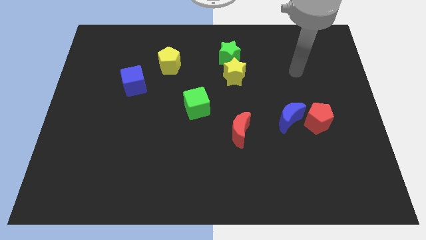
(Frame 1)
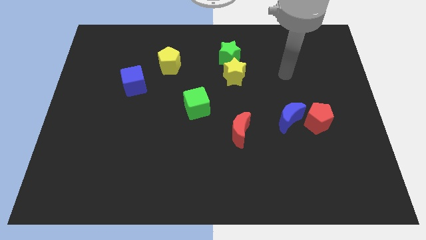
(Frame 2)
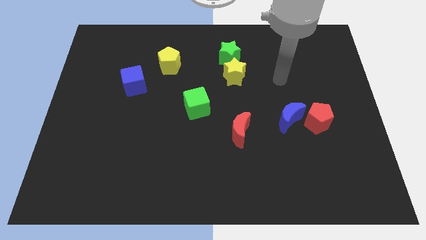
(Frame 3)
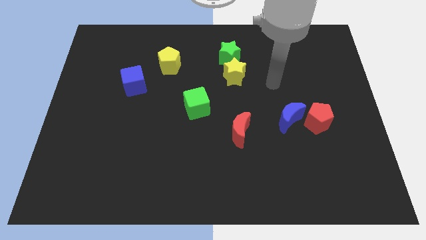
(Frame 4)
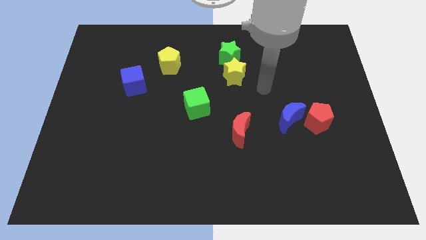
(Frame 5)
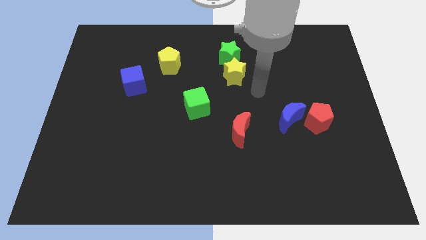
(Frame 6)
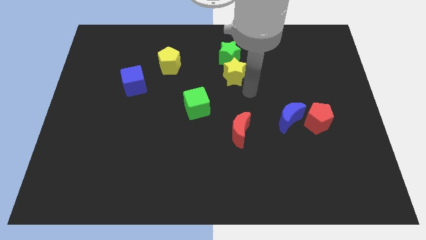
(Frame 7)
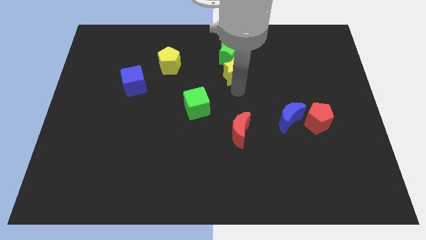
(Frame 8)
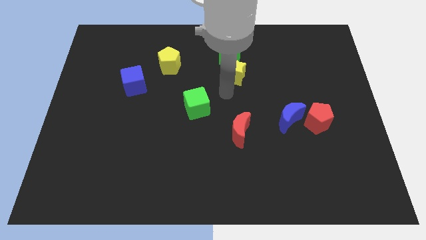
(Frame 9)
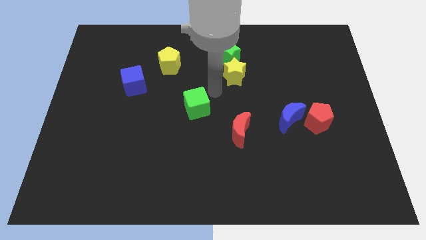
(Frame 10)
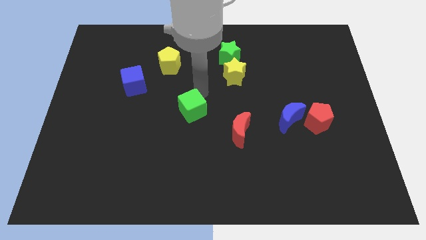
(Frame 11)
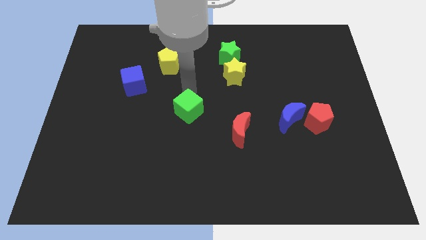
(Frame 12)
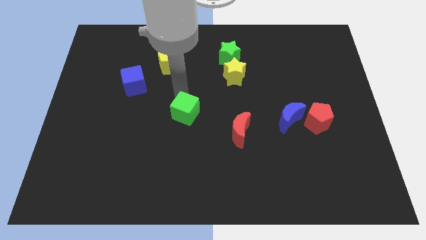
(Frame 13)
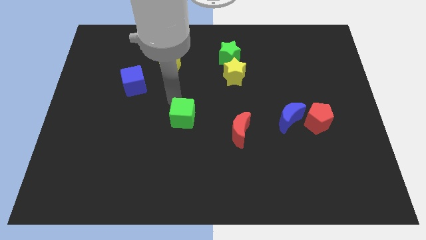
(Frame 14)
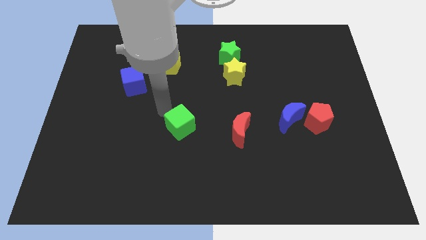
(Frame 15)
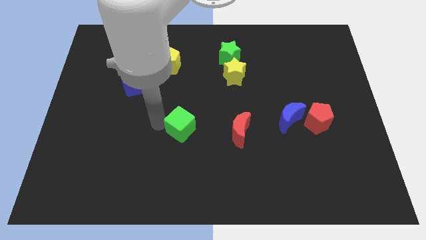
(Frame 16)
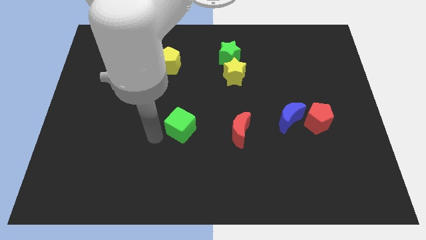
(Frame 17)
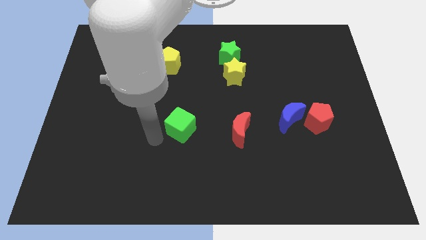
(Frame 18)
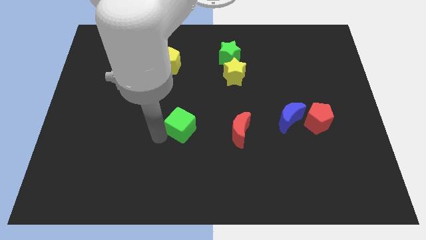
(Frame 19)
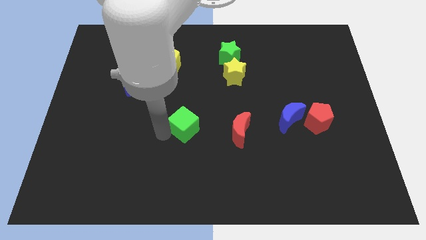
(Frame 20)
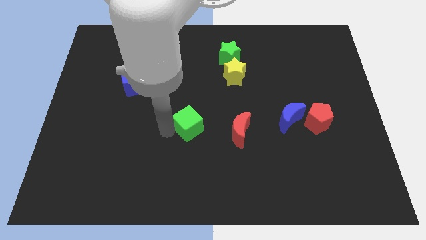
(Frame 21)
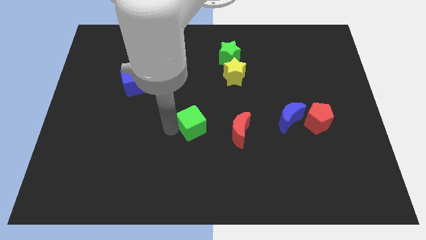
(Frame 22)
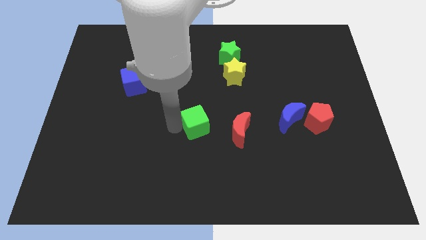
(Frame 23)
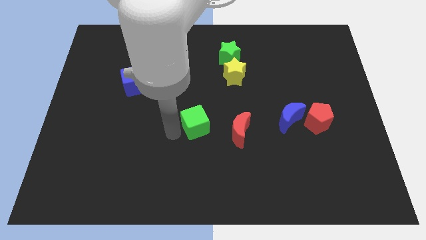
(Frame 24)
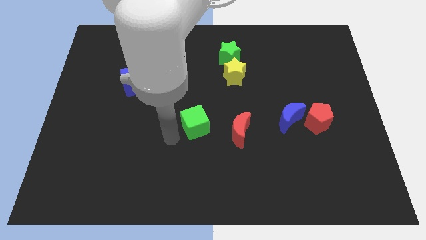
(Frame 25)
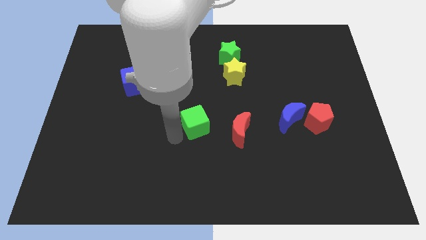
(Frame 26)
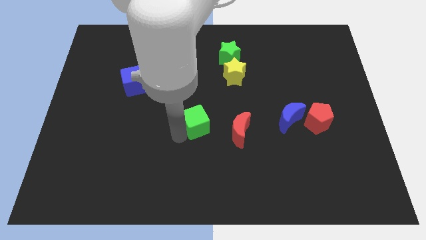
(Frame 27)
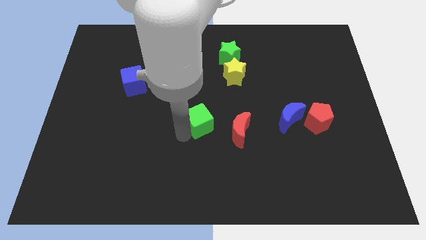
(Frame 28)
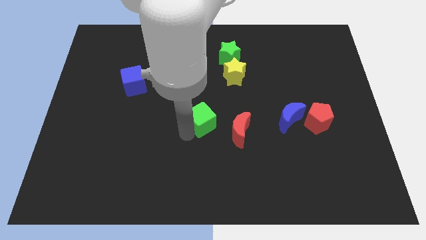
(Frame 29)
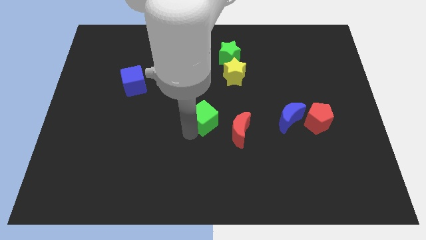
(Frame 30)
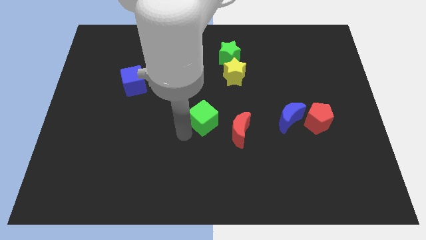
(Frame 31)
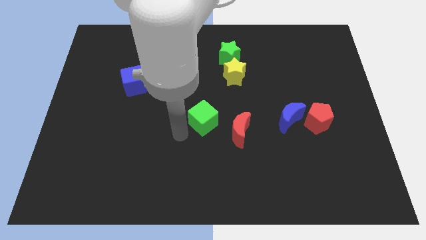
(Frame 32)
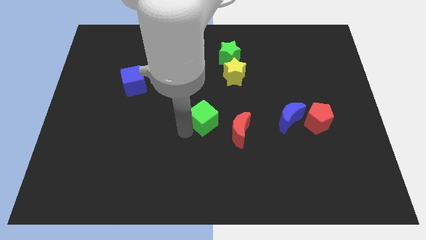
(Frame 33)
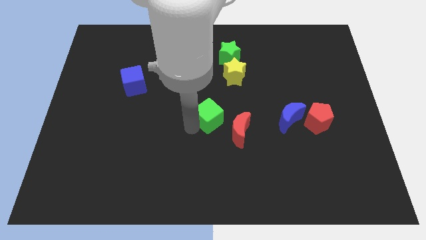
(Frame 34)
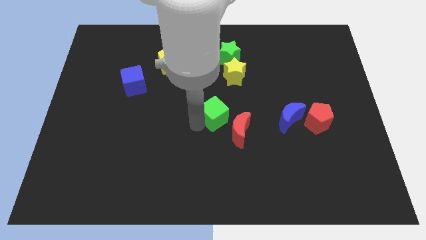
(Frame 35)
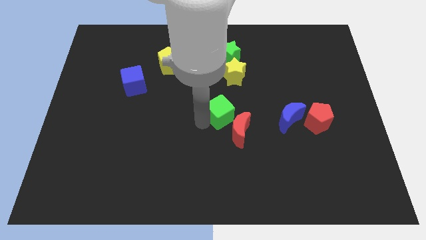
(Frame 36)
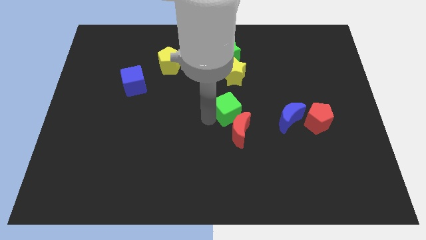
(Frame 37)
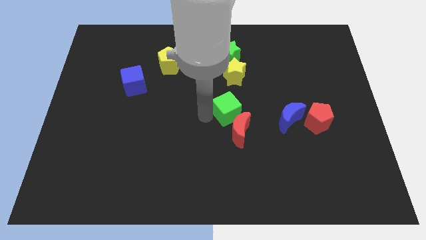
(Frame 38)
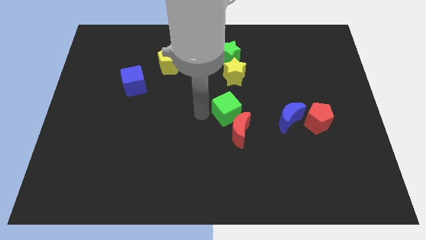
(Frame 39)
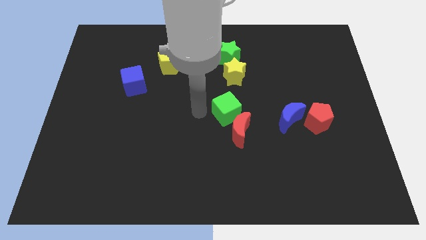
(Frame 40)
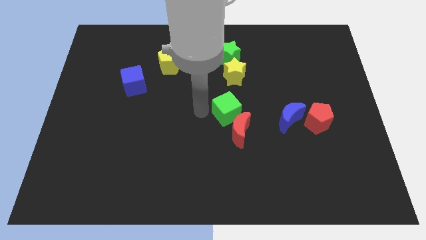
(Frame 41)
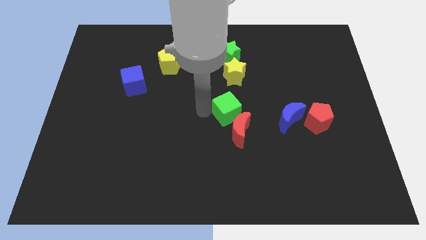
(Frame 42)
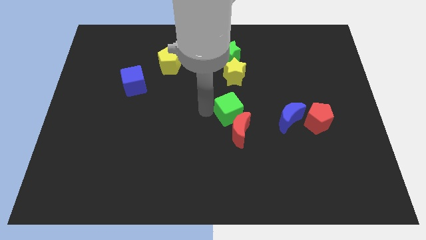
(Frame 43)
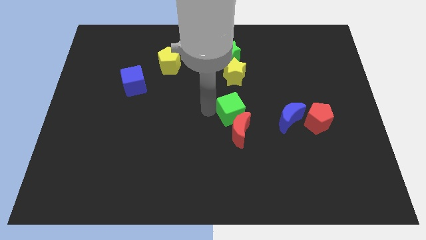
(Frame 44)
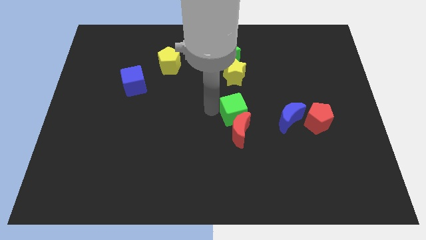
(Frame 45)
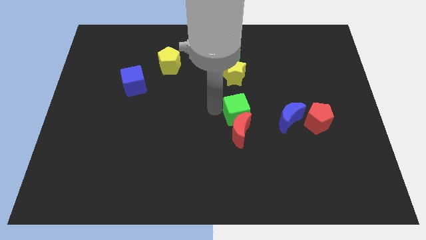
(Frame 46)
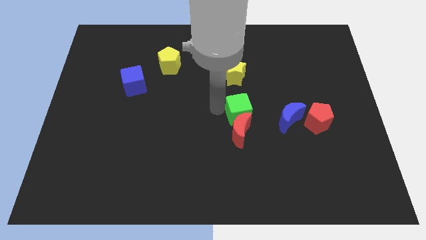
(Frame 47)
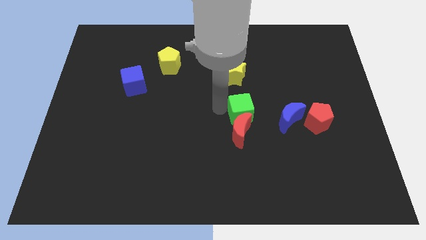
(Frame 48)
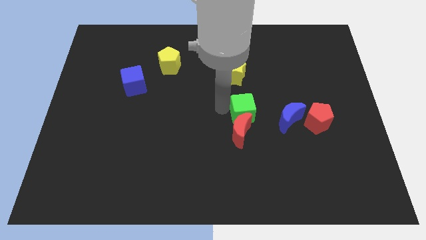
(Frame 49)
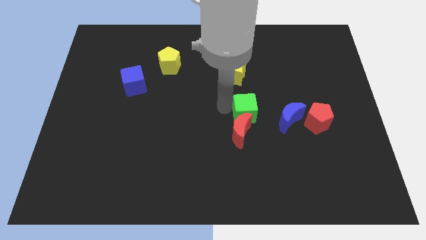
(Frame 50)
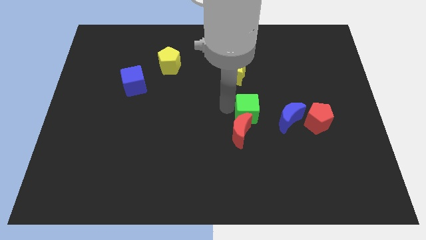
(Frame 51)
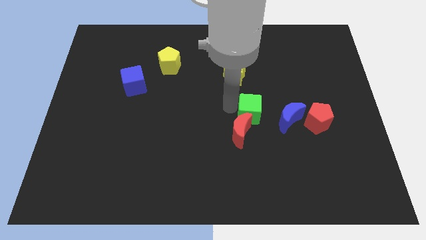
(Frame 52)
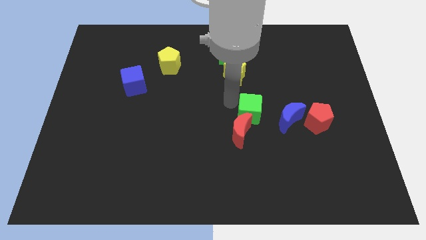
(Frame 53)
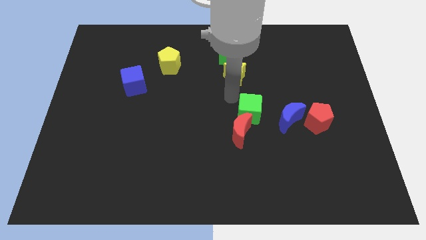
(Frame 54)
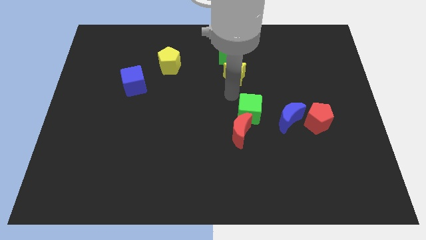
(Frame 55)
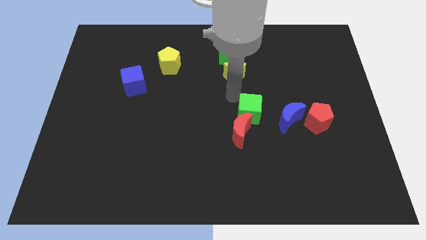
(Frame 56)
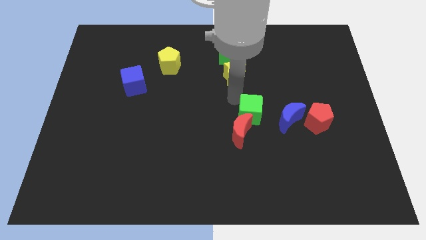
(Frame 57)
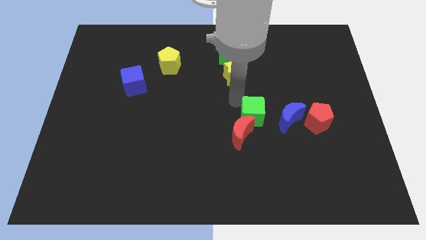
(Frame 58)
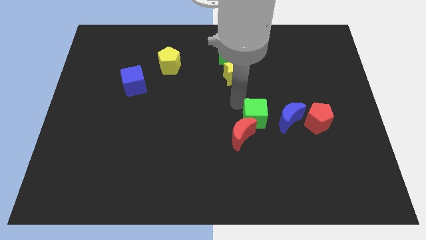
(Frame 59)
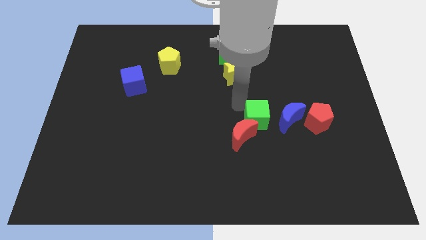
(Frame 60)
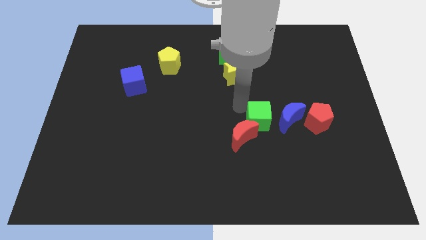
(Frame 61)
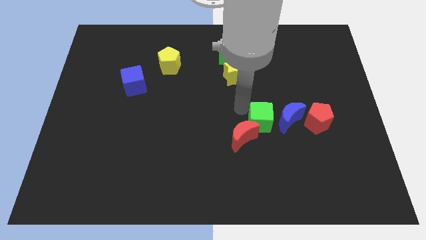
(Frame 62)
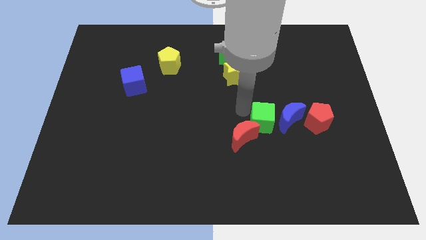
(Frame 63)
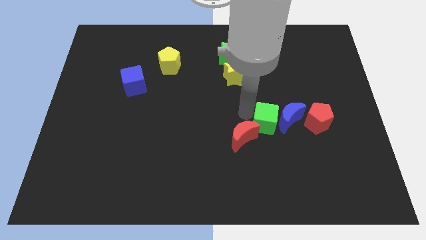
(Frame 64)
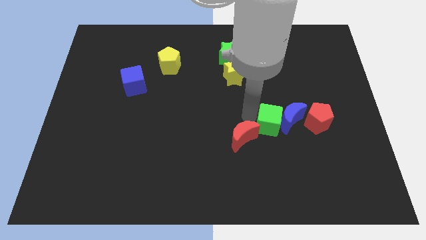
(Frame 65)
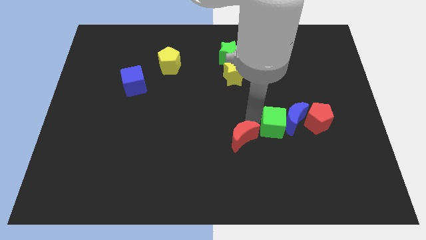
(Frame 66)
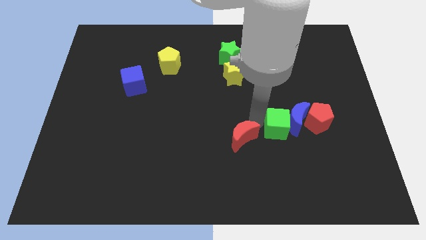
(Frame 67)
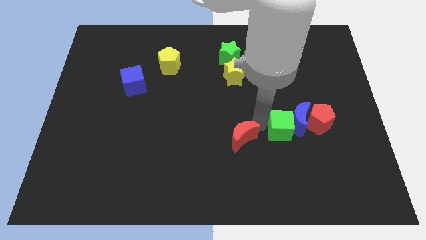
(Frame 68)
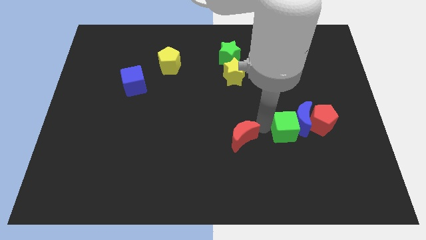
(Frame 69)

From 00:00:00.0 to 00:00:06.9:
move the green cube to the bottom of the blue moon

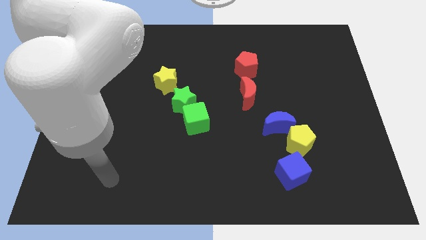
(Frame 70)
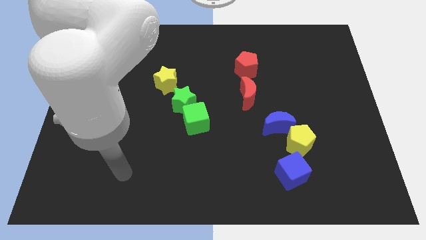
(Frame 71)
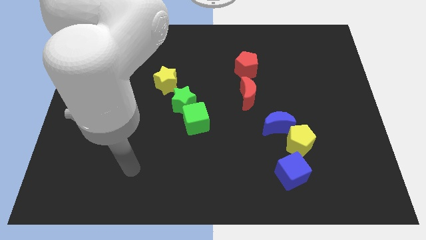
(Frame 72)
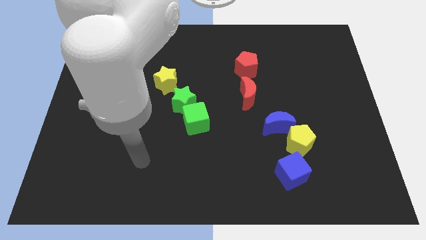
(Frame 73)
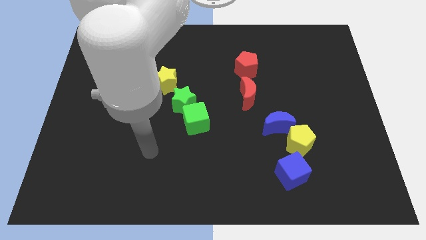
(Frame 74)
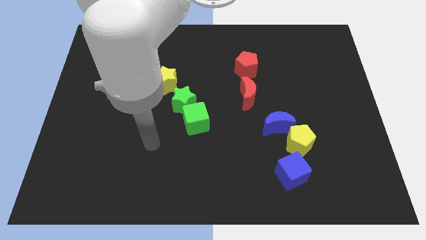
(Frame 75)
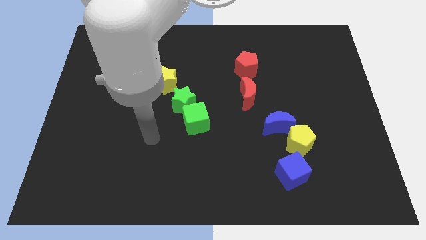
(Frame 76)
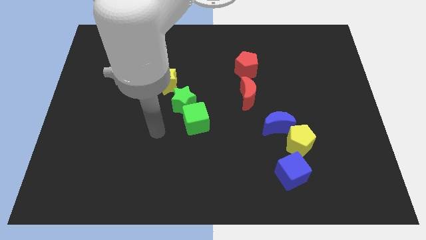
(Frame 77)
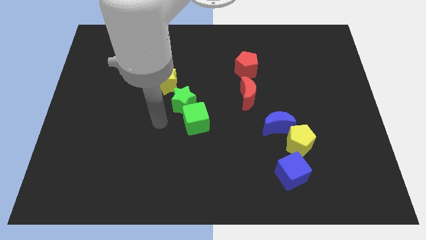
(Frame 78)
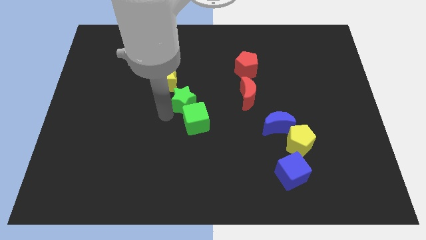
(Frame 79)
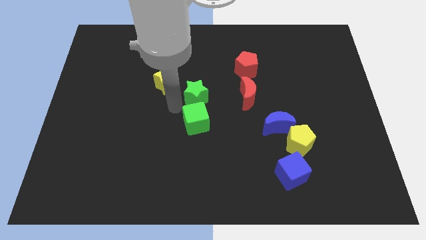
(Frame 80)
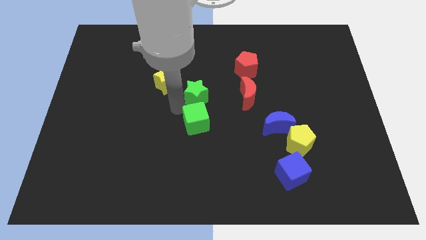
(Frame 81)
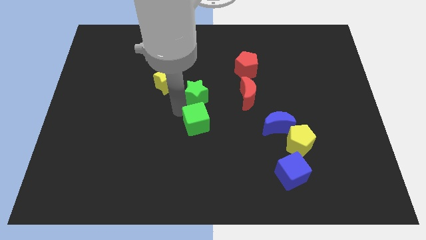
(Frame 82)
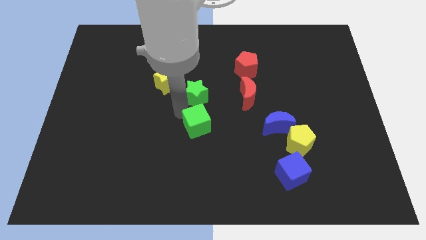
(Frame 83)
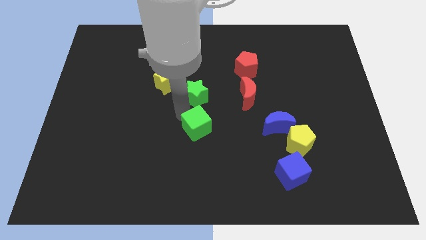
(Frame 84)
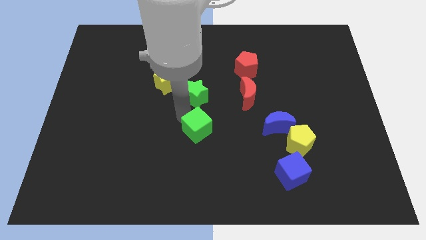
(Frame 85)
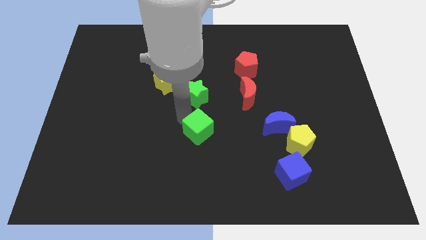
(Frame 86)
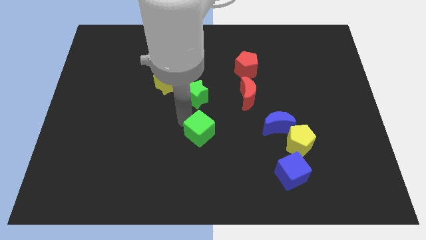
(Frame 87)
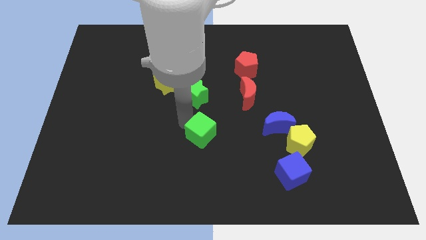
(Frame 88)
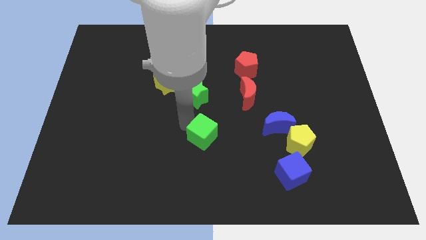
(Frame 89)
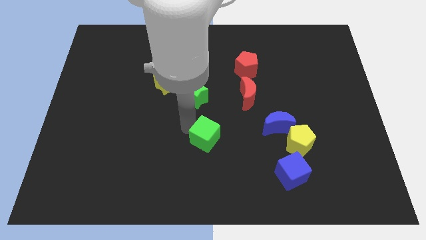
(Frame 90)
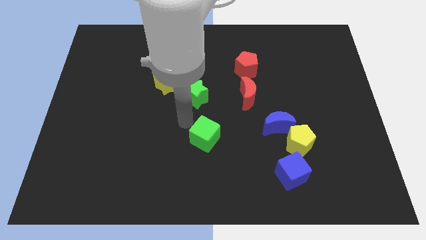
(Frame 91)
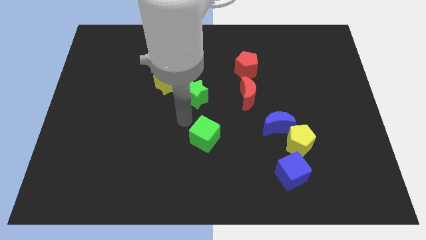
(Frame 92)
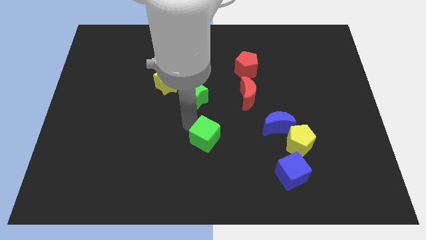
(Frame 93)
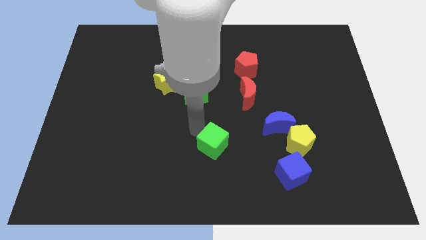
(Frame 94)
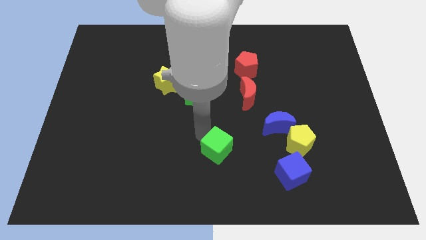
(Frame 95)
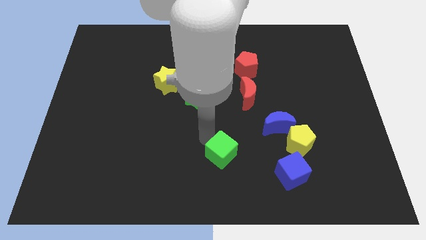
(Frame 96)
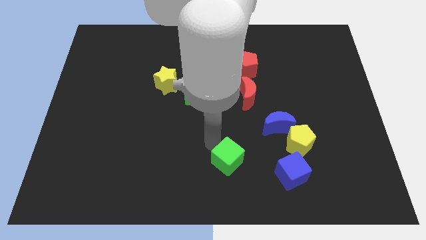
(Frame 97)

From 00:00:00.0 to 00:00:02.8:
move the green cube to the left of the blue cube
